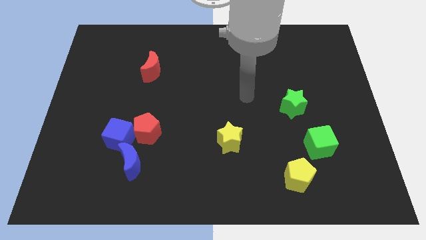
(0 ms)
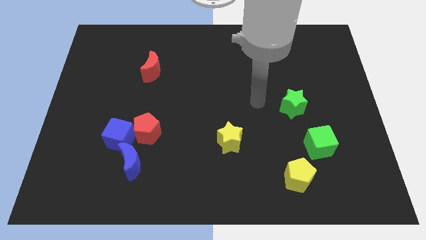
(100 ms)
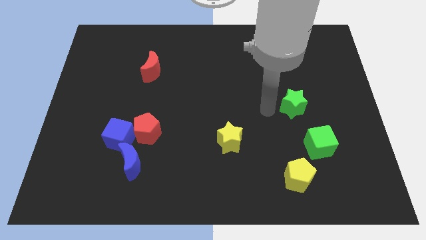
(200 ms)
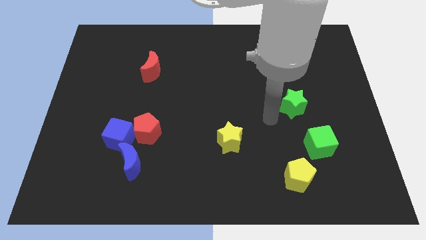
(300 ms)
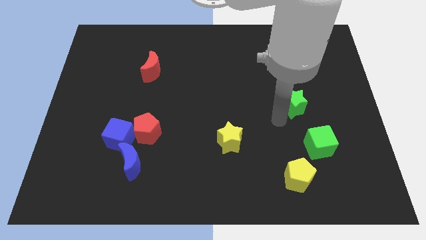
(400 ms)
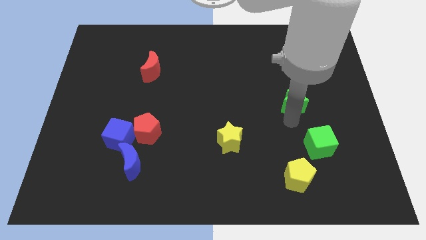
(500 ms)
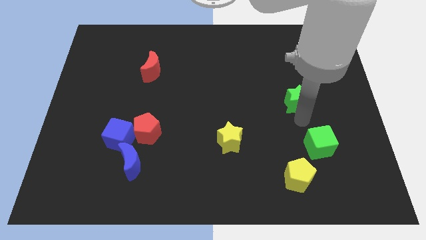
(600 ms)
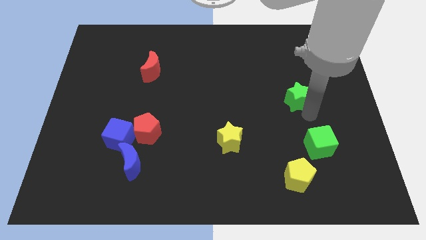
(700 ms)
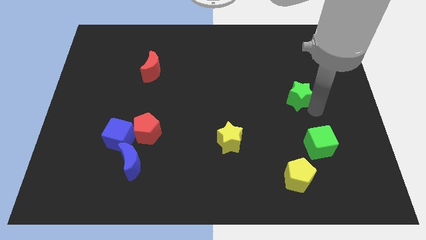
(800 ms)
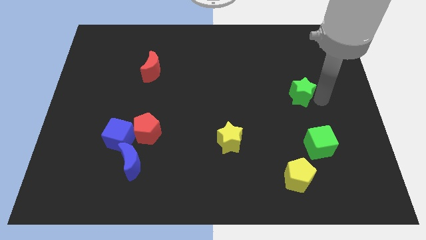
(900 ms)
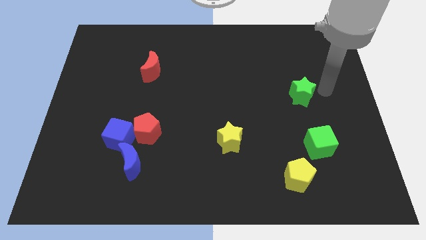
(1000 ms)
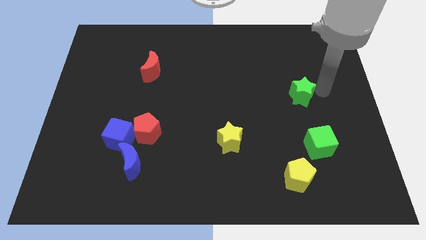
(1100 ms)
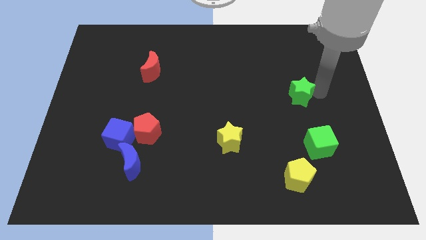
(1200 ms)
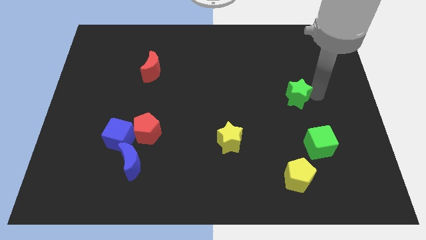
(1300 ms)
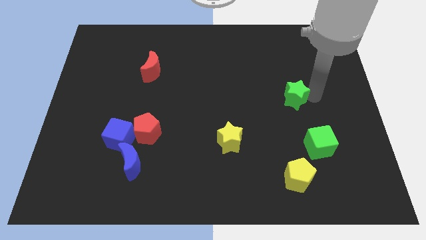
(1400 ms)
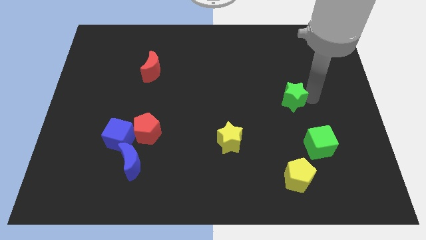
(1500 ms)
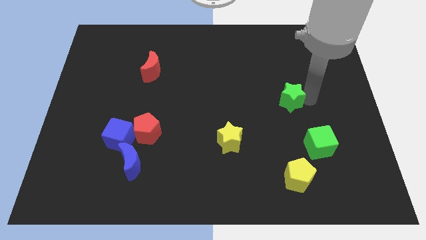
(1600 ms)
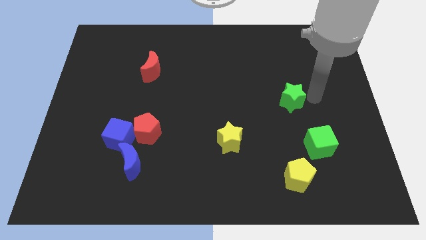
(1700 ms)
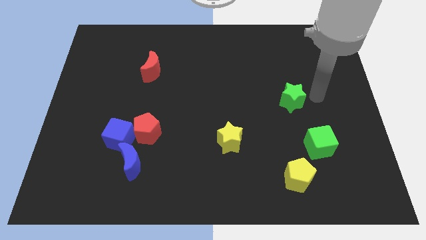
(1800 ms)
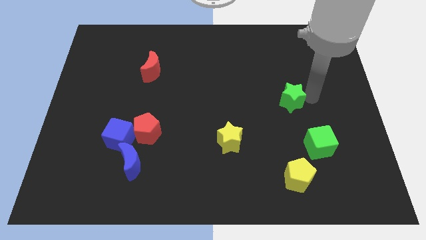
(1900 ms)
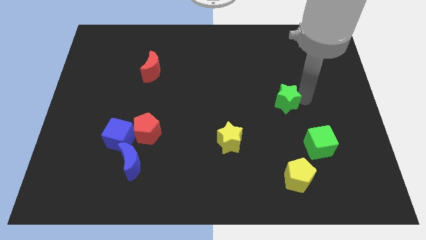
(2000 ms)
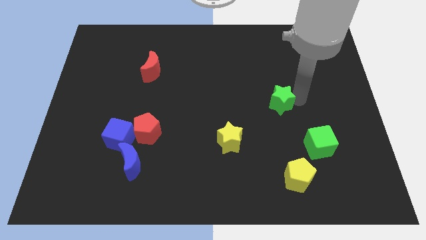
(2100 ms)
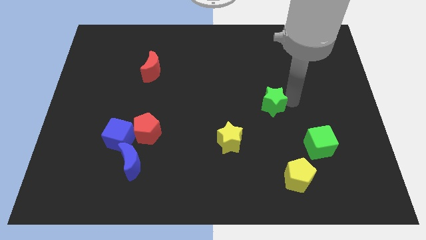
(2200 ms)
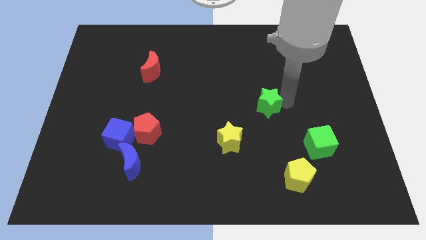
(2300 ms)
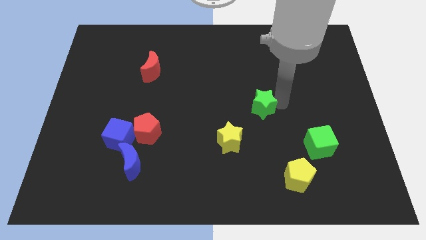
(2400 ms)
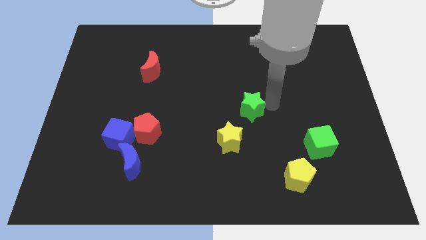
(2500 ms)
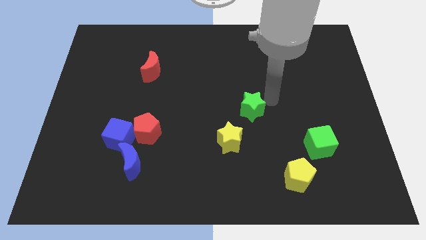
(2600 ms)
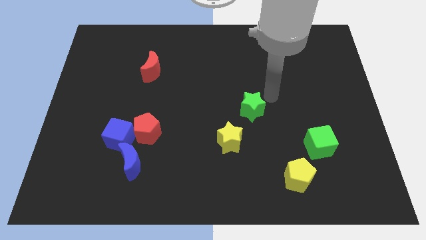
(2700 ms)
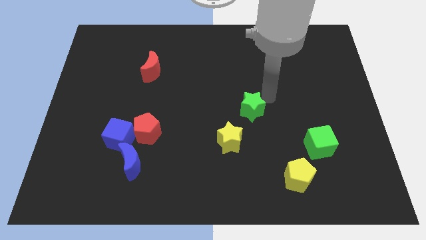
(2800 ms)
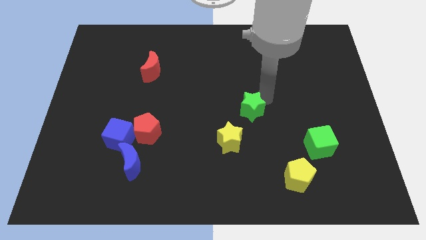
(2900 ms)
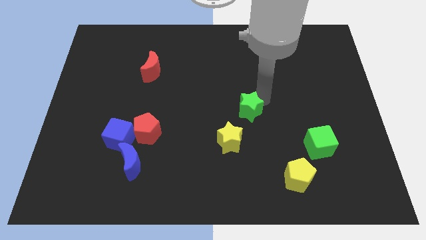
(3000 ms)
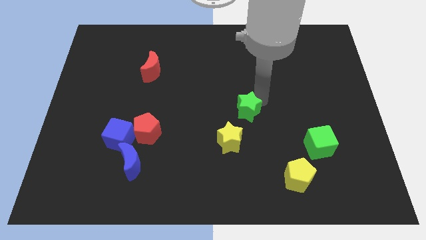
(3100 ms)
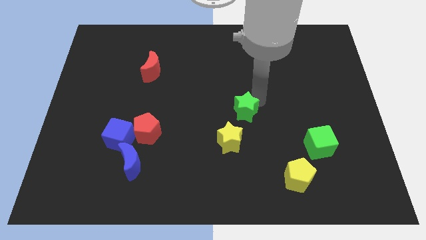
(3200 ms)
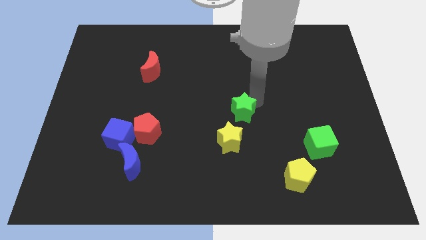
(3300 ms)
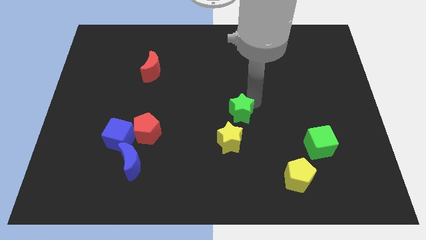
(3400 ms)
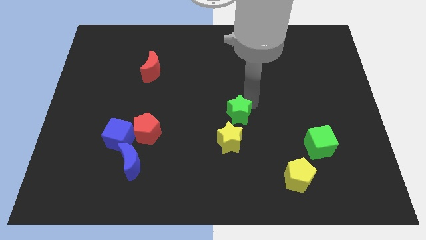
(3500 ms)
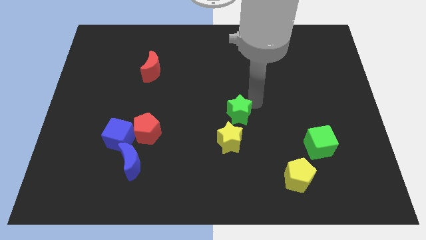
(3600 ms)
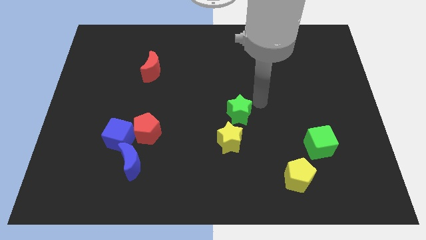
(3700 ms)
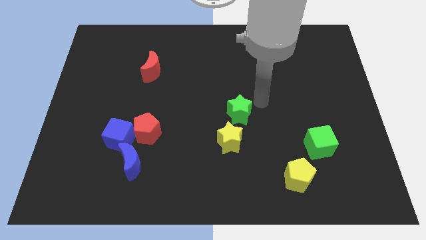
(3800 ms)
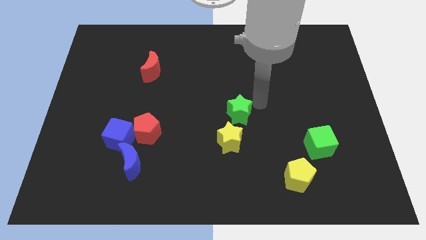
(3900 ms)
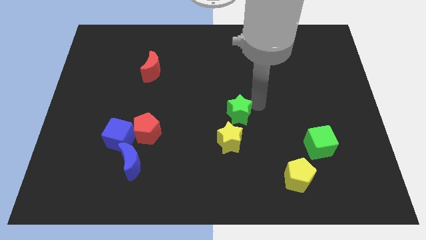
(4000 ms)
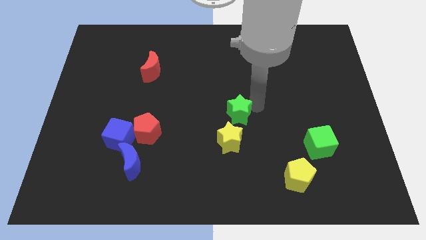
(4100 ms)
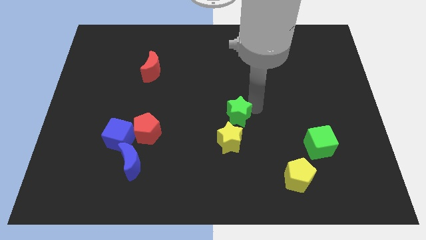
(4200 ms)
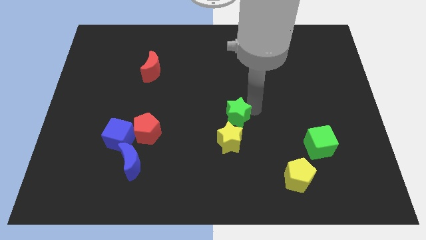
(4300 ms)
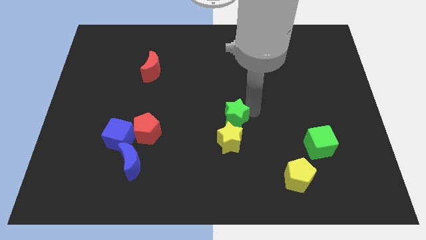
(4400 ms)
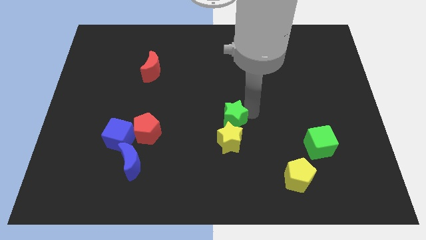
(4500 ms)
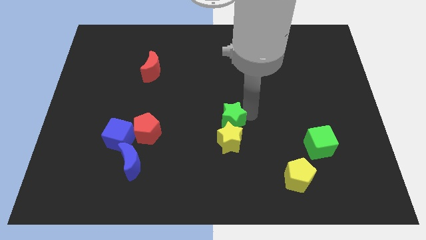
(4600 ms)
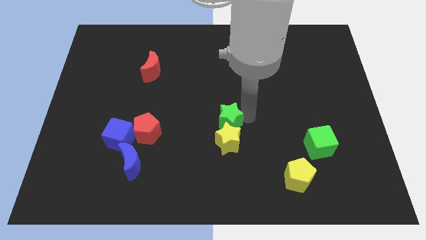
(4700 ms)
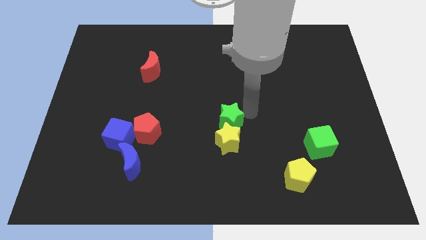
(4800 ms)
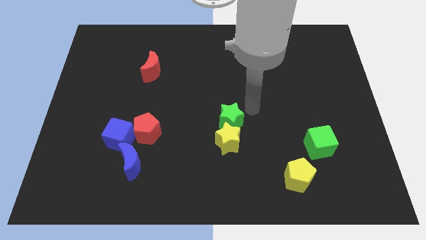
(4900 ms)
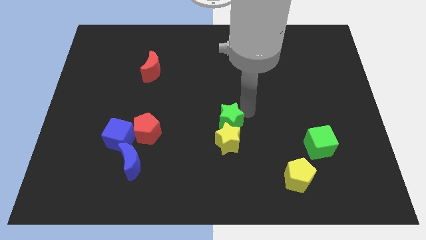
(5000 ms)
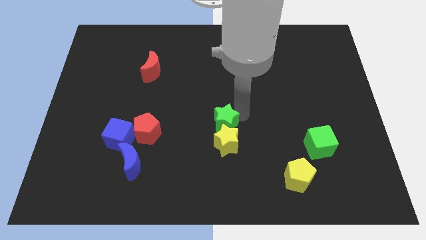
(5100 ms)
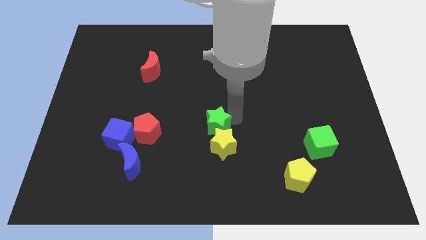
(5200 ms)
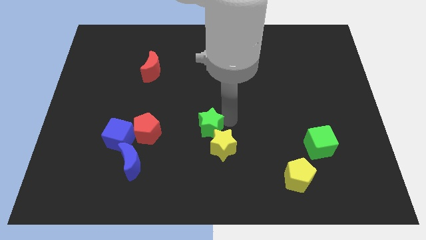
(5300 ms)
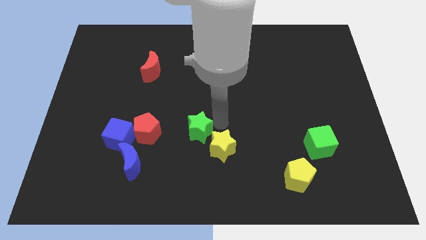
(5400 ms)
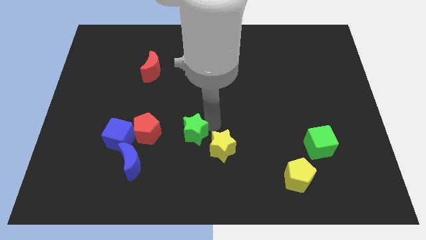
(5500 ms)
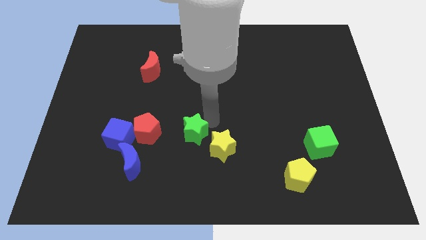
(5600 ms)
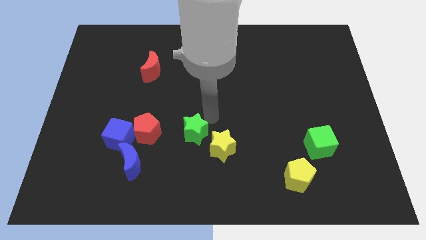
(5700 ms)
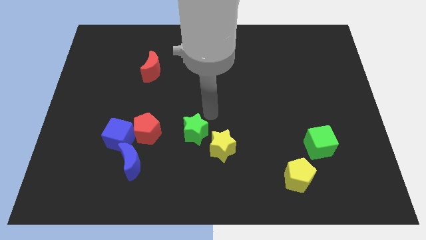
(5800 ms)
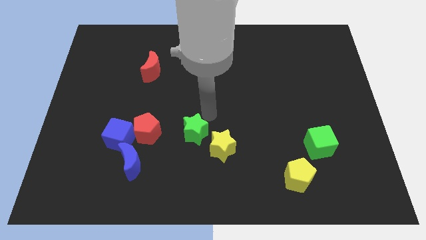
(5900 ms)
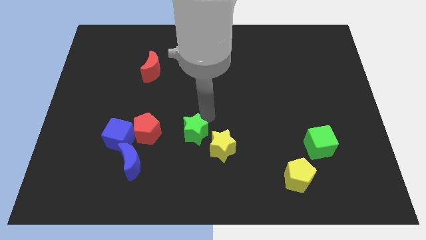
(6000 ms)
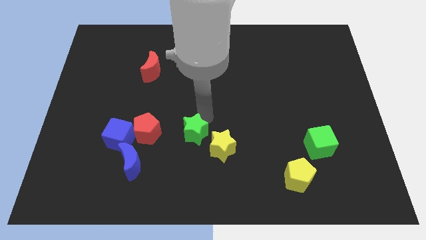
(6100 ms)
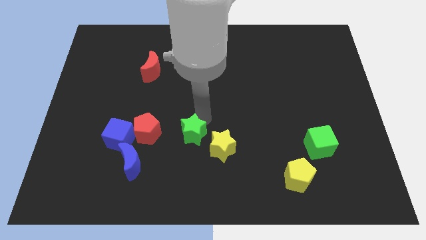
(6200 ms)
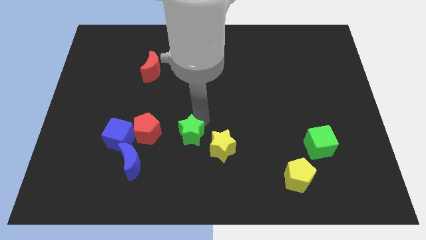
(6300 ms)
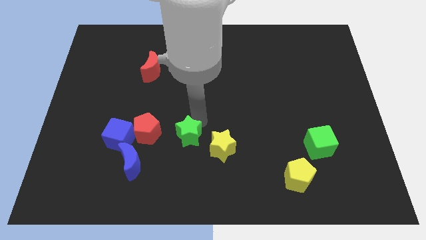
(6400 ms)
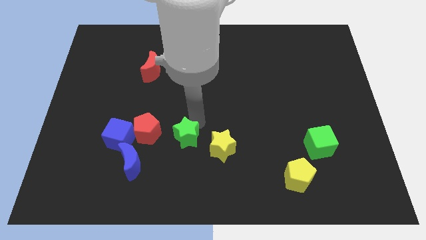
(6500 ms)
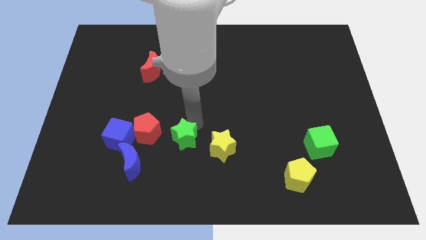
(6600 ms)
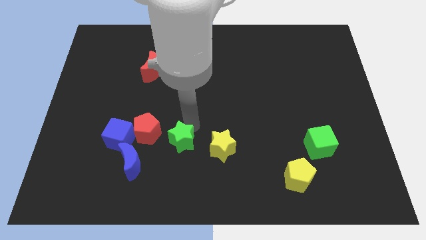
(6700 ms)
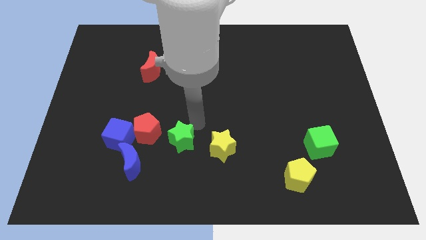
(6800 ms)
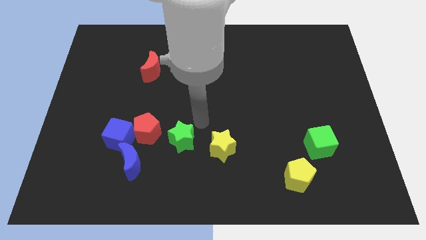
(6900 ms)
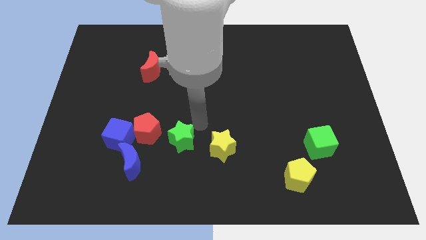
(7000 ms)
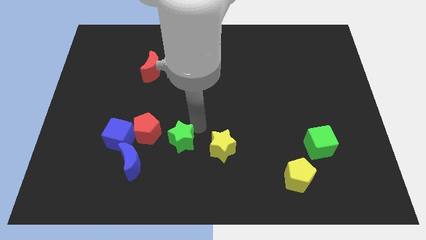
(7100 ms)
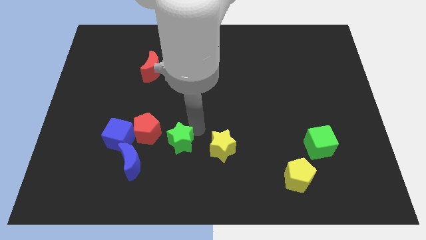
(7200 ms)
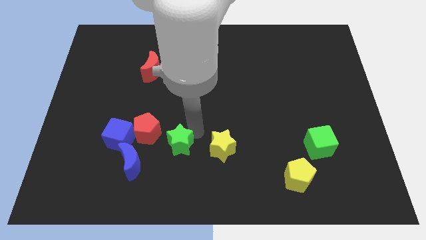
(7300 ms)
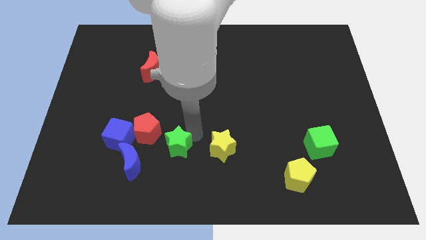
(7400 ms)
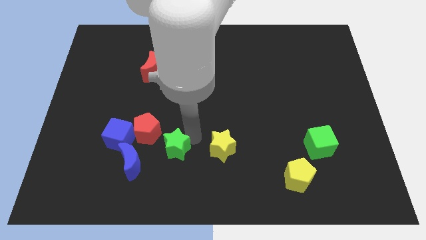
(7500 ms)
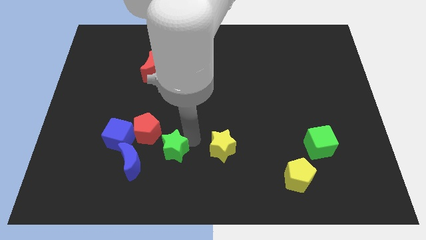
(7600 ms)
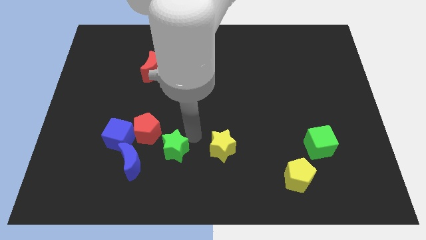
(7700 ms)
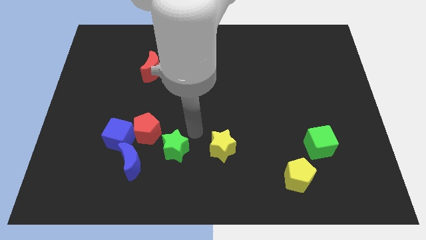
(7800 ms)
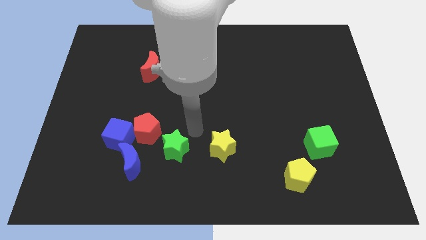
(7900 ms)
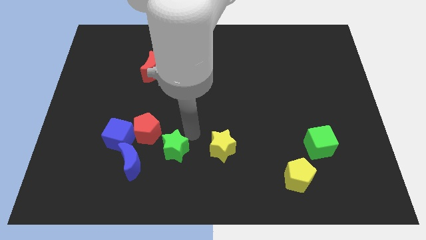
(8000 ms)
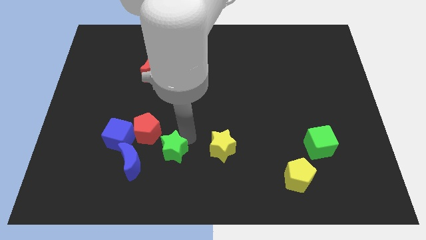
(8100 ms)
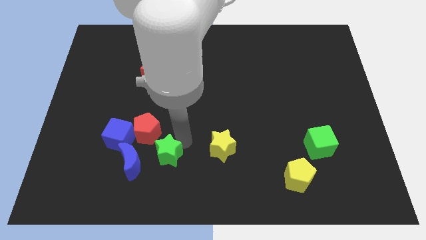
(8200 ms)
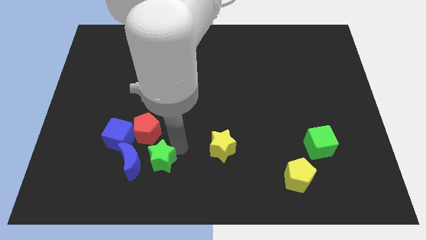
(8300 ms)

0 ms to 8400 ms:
put the green star to the bottom right side of the blue cube
